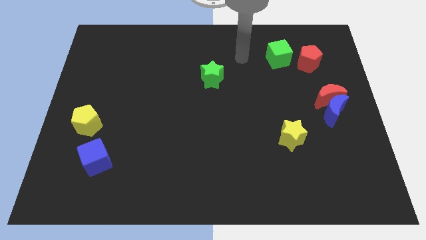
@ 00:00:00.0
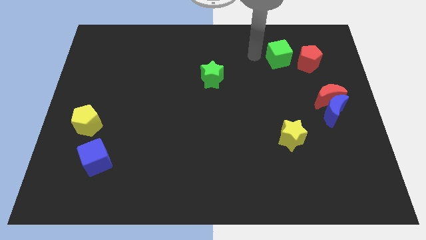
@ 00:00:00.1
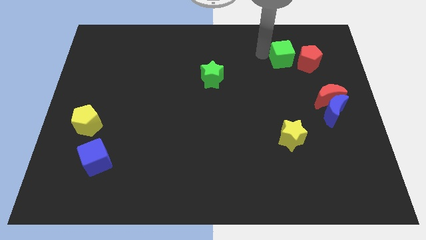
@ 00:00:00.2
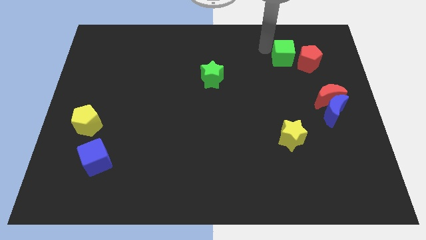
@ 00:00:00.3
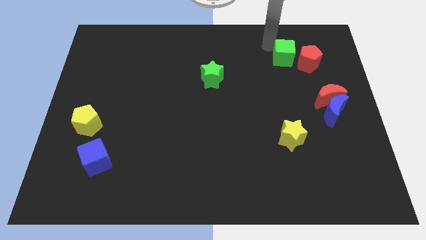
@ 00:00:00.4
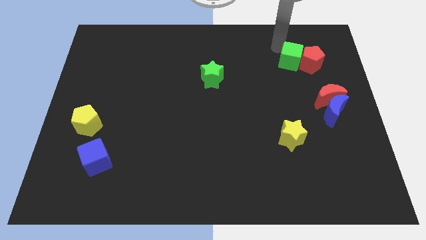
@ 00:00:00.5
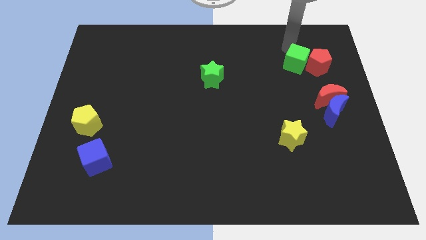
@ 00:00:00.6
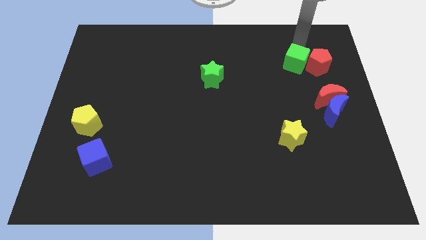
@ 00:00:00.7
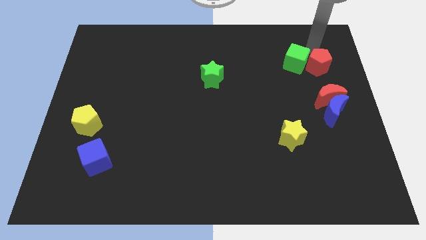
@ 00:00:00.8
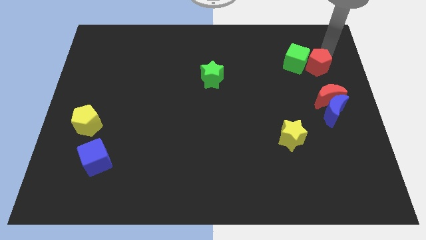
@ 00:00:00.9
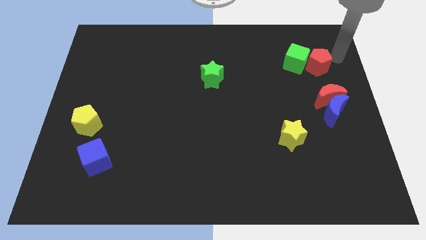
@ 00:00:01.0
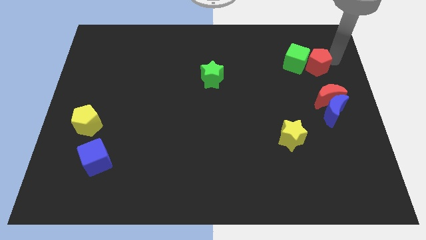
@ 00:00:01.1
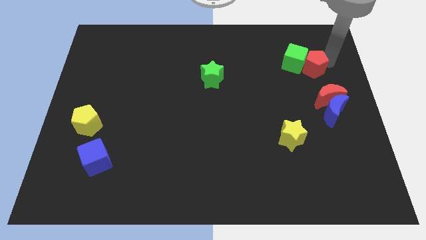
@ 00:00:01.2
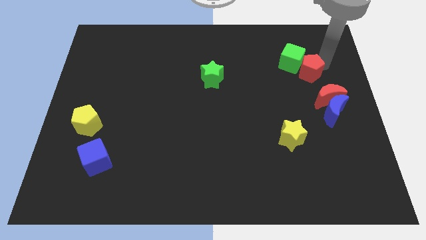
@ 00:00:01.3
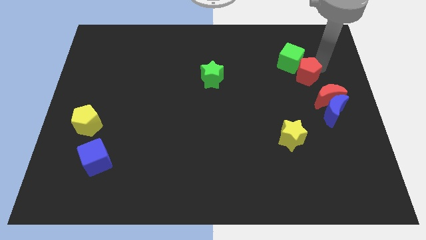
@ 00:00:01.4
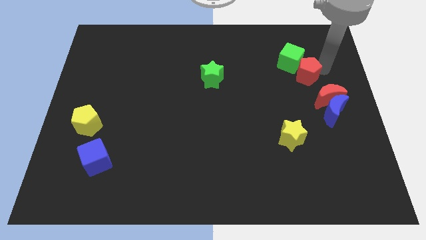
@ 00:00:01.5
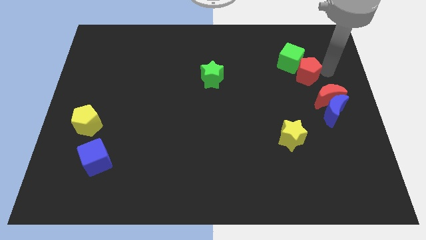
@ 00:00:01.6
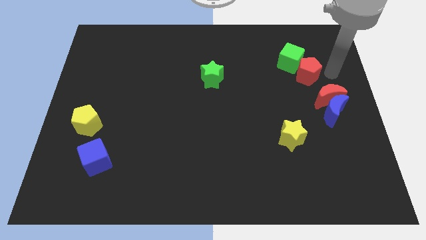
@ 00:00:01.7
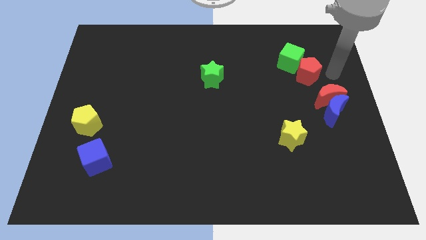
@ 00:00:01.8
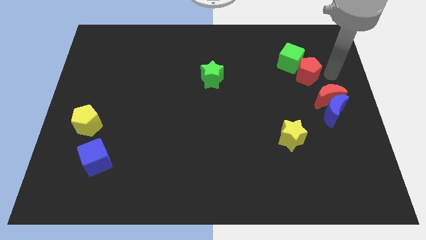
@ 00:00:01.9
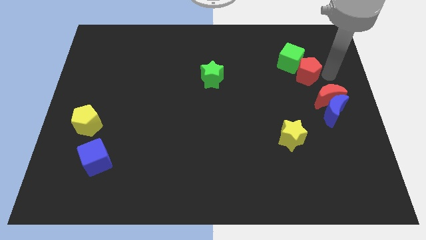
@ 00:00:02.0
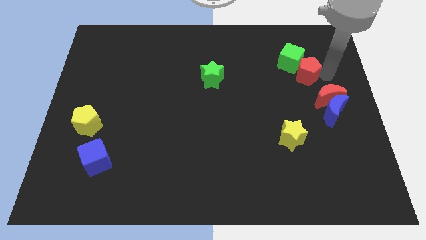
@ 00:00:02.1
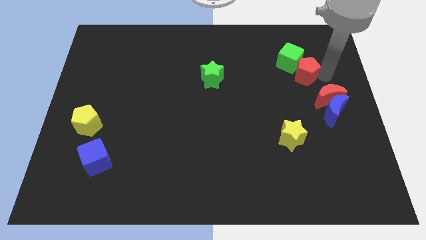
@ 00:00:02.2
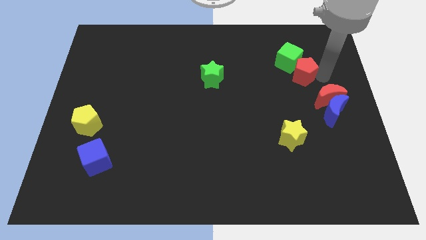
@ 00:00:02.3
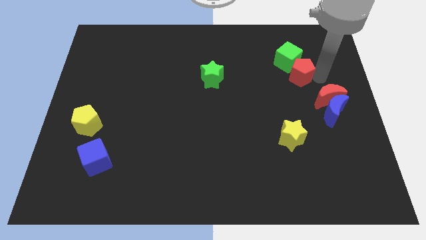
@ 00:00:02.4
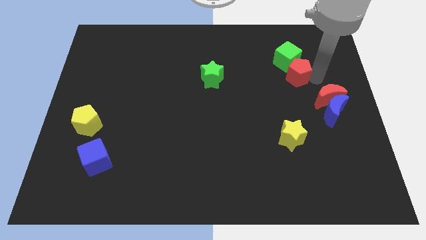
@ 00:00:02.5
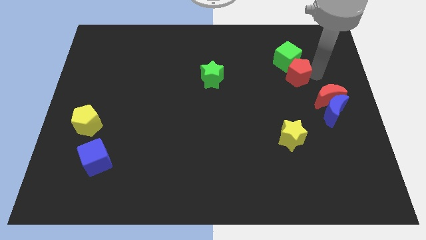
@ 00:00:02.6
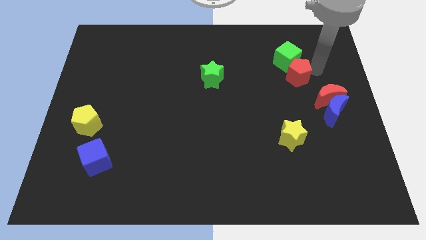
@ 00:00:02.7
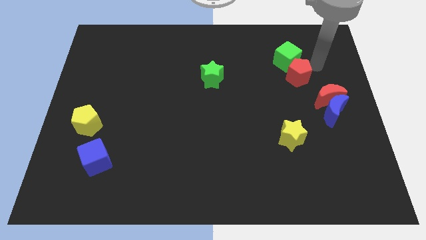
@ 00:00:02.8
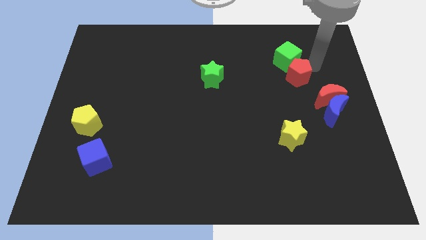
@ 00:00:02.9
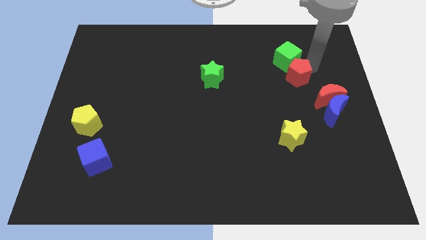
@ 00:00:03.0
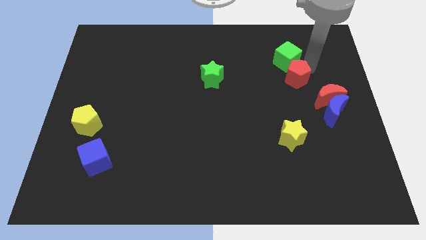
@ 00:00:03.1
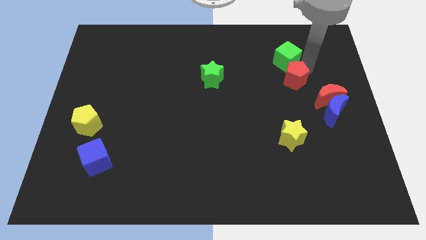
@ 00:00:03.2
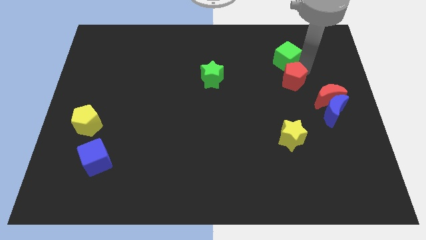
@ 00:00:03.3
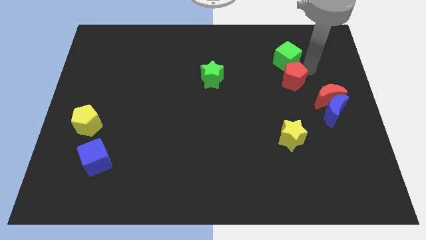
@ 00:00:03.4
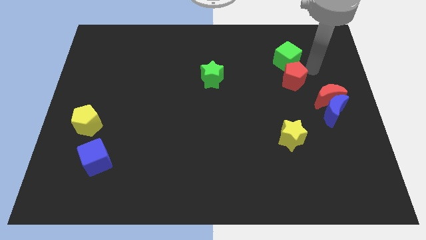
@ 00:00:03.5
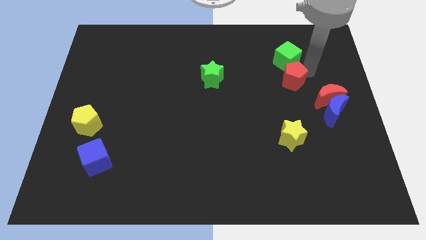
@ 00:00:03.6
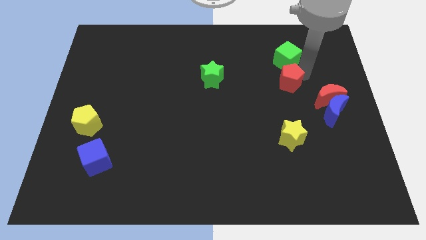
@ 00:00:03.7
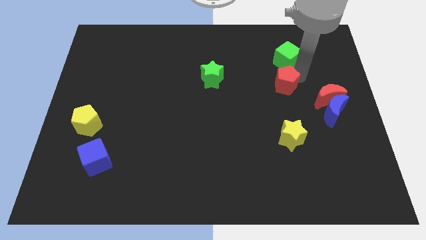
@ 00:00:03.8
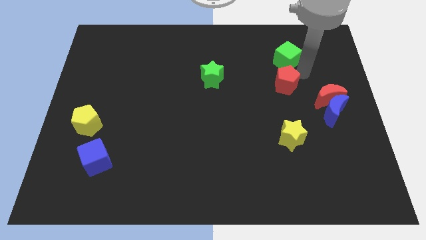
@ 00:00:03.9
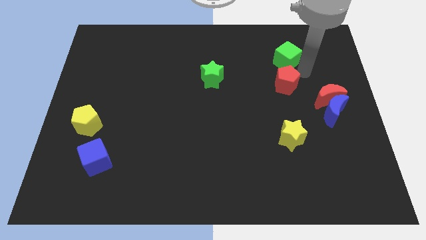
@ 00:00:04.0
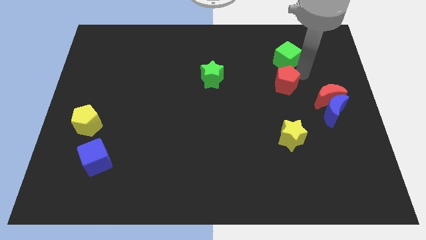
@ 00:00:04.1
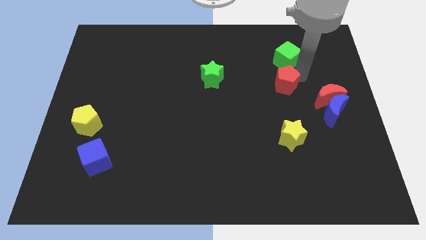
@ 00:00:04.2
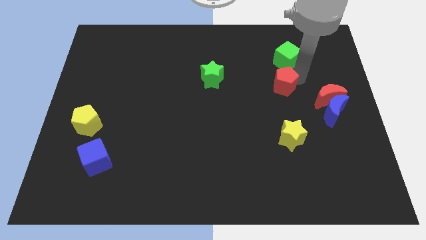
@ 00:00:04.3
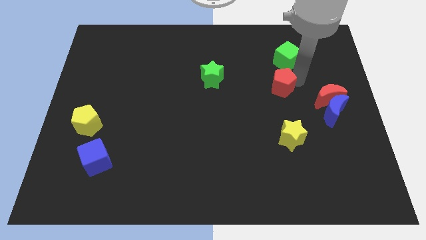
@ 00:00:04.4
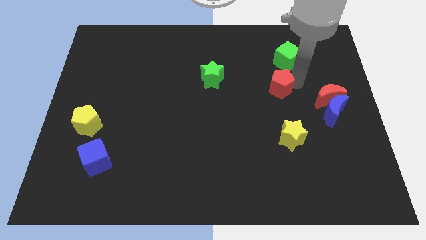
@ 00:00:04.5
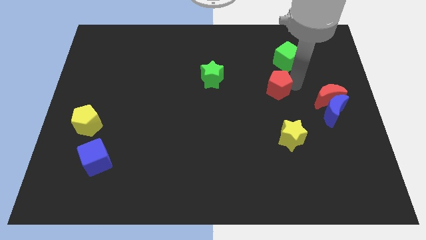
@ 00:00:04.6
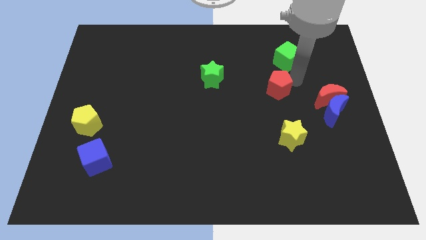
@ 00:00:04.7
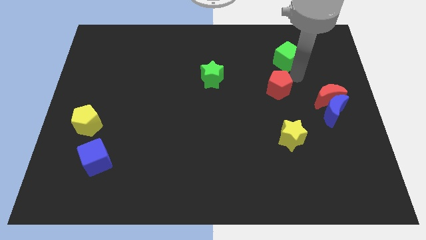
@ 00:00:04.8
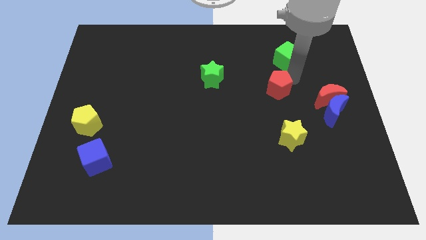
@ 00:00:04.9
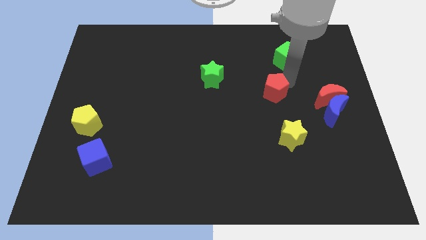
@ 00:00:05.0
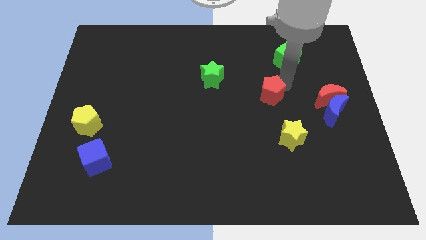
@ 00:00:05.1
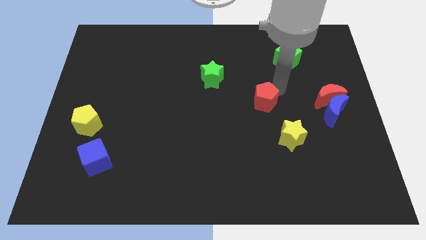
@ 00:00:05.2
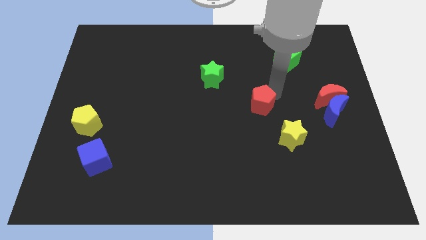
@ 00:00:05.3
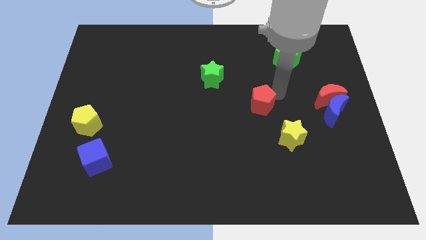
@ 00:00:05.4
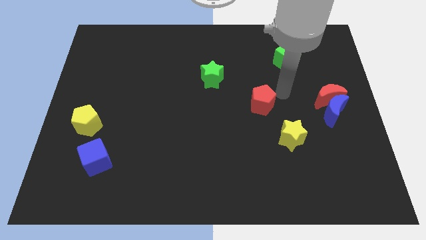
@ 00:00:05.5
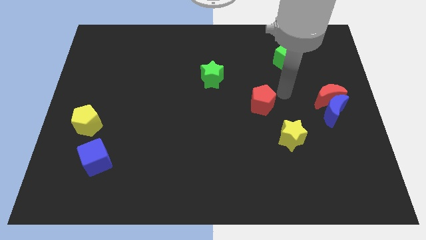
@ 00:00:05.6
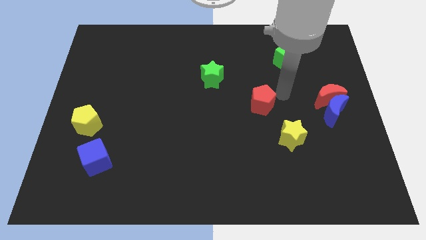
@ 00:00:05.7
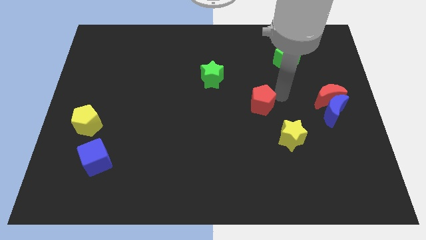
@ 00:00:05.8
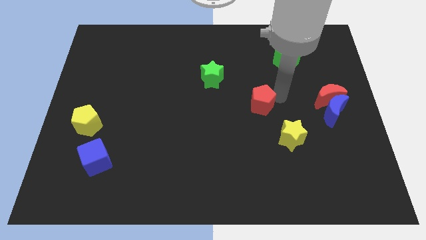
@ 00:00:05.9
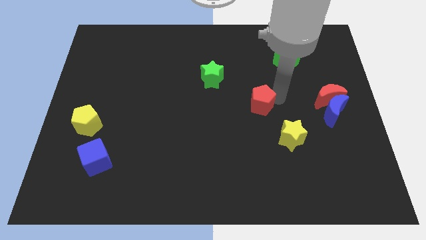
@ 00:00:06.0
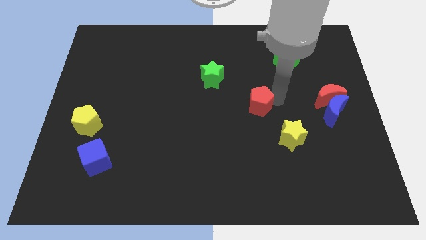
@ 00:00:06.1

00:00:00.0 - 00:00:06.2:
slide the red pentagon down and then left

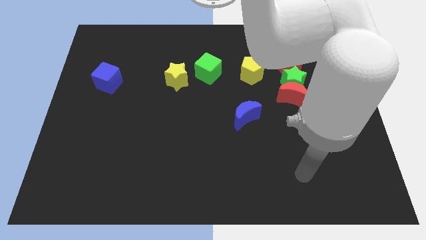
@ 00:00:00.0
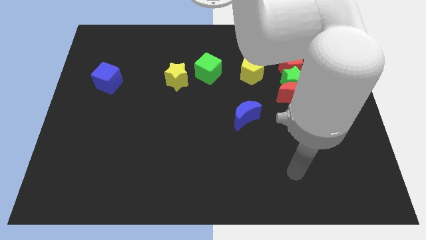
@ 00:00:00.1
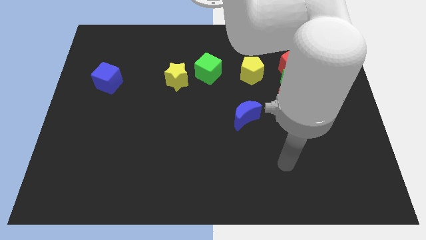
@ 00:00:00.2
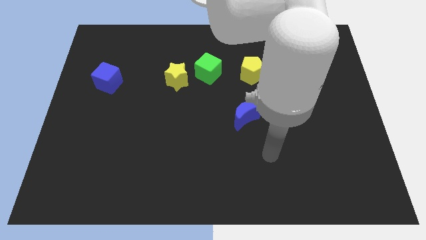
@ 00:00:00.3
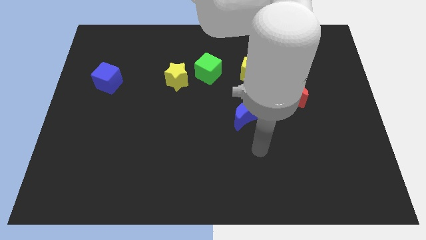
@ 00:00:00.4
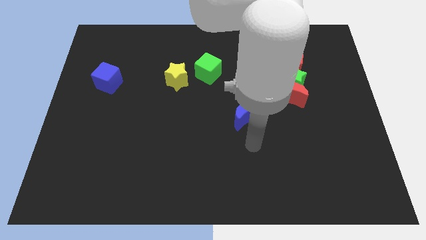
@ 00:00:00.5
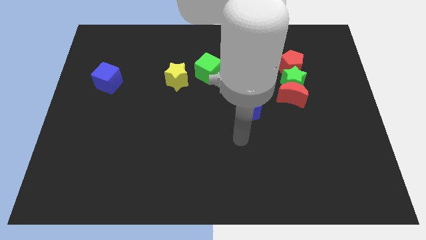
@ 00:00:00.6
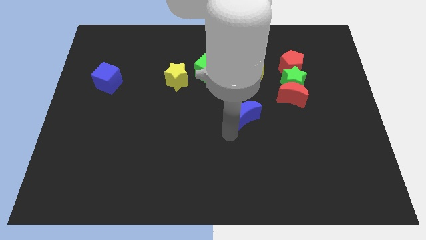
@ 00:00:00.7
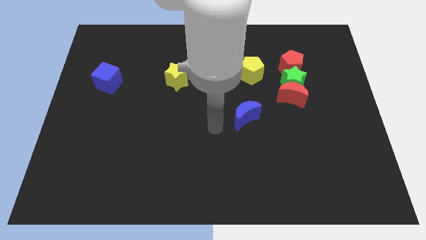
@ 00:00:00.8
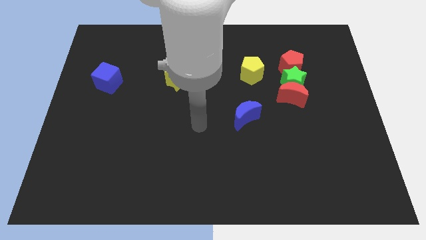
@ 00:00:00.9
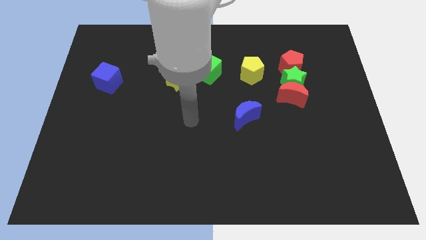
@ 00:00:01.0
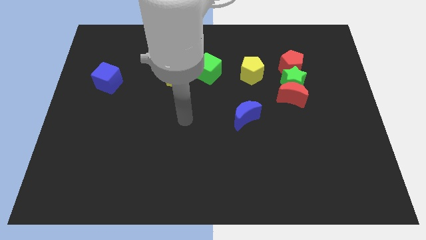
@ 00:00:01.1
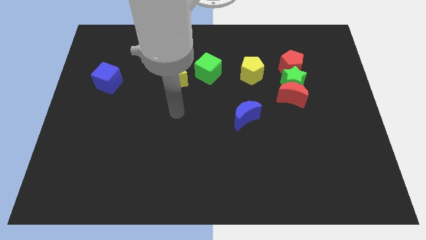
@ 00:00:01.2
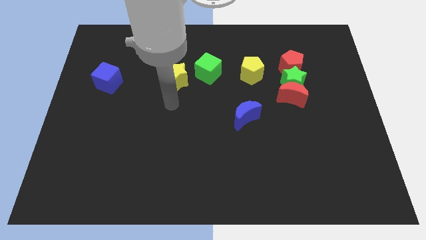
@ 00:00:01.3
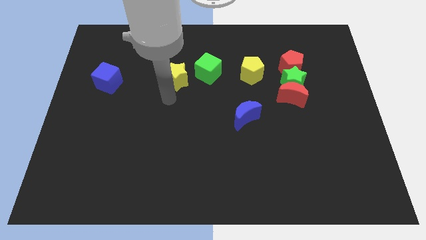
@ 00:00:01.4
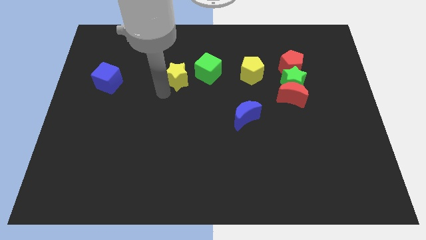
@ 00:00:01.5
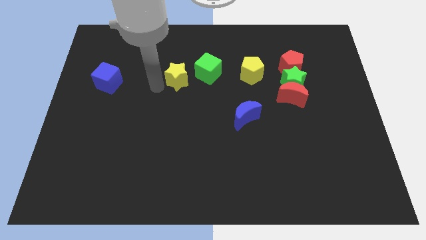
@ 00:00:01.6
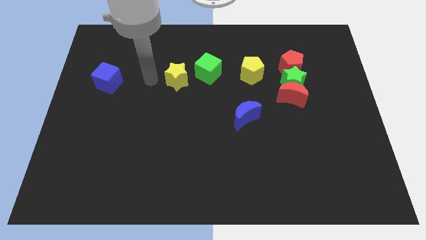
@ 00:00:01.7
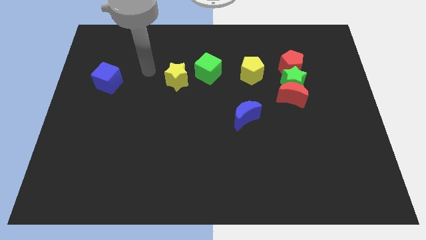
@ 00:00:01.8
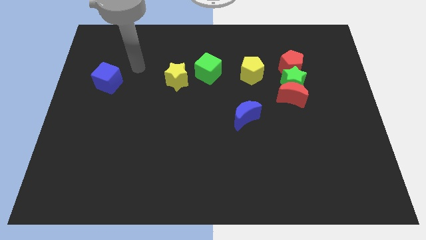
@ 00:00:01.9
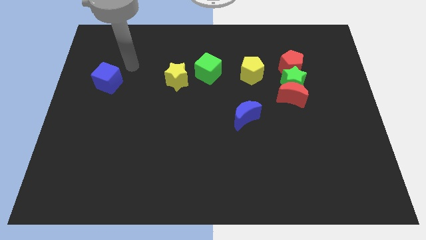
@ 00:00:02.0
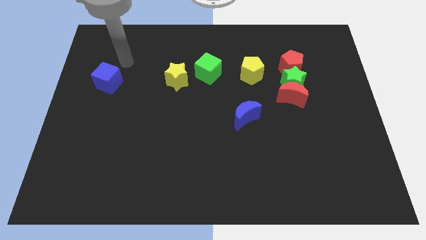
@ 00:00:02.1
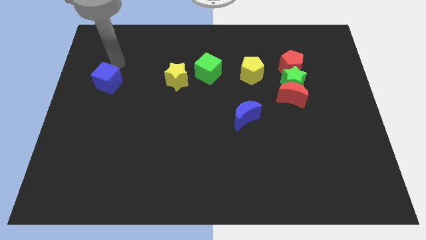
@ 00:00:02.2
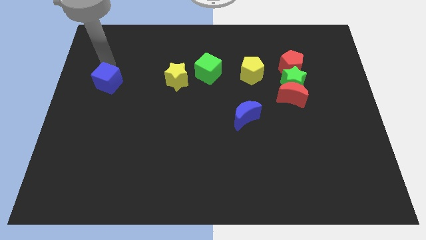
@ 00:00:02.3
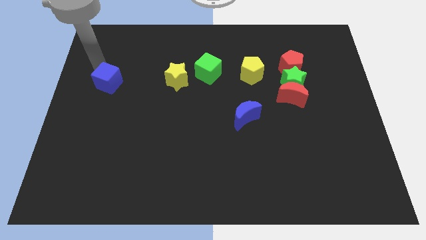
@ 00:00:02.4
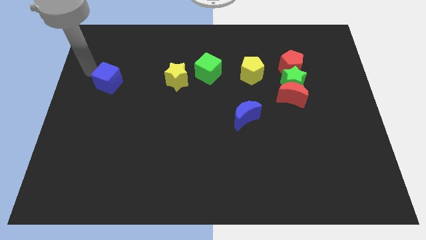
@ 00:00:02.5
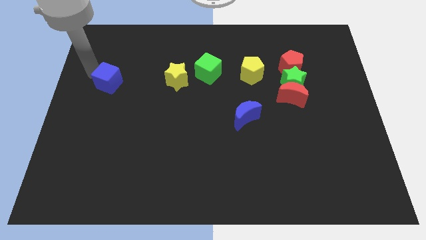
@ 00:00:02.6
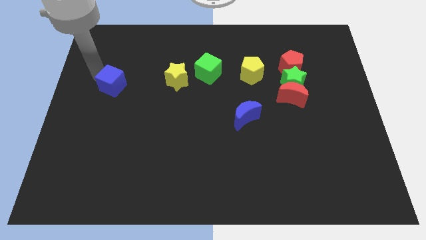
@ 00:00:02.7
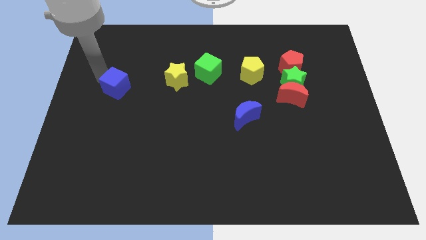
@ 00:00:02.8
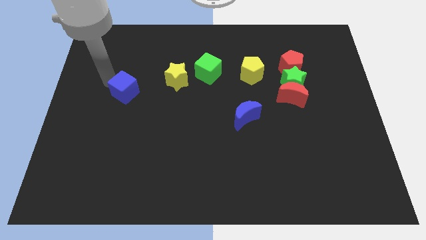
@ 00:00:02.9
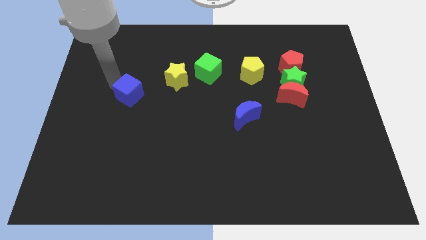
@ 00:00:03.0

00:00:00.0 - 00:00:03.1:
slightly move the blue cube downwards and right
